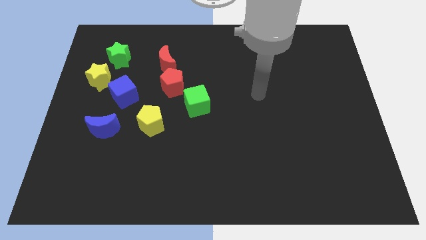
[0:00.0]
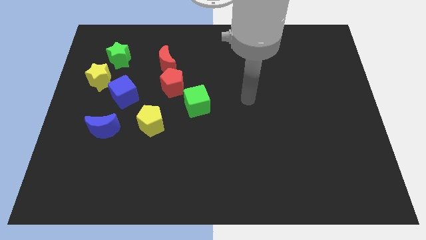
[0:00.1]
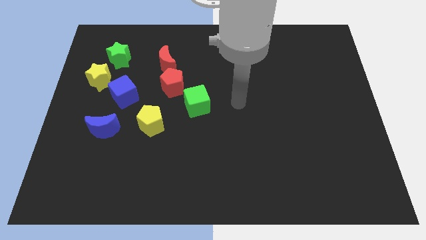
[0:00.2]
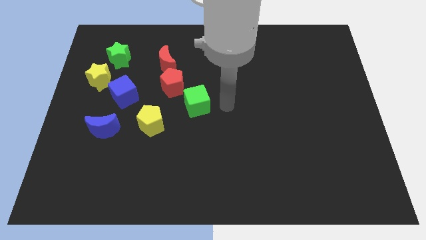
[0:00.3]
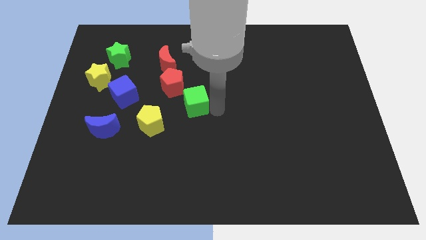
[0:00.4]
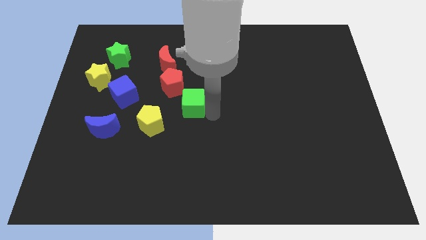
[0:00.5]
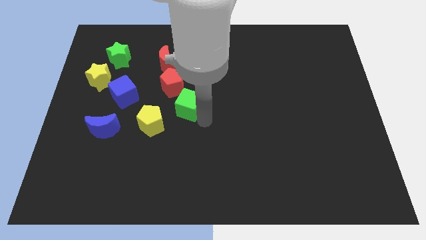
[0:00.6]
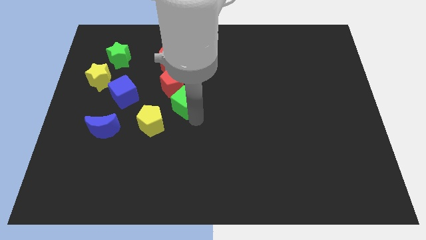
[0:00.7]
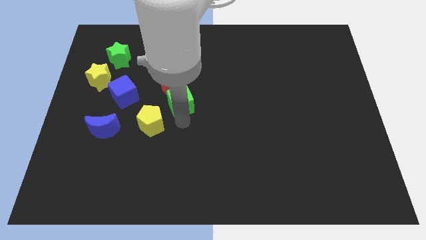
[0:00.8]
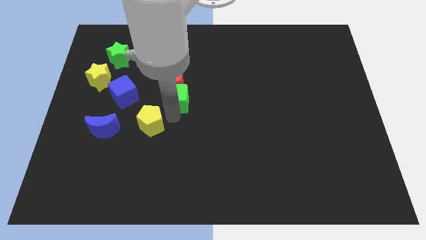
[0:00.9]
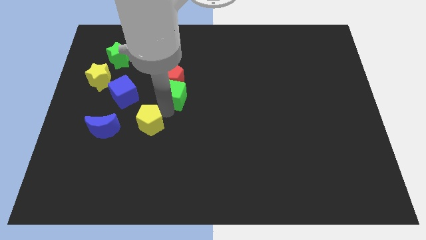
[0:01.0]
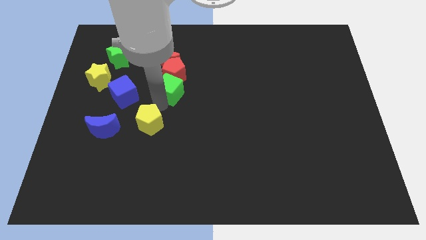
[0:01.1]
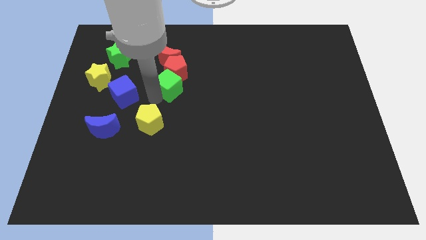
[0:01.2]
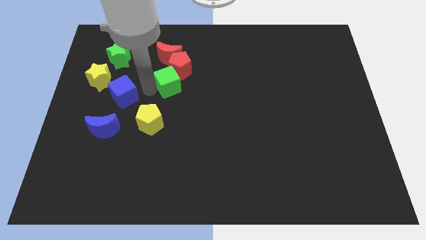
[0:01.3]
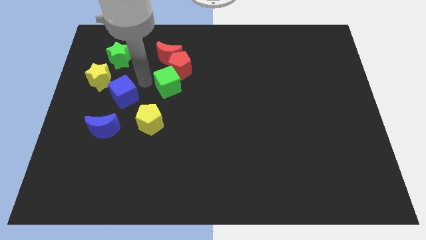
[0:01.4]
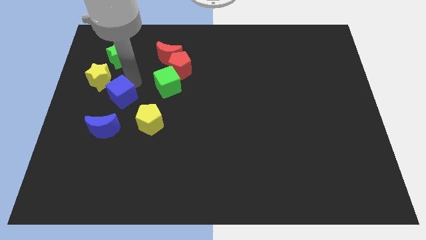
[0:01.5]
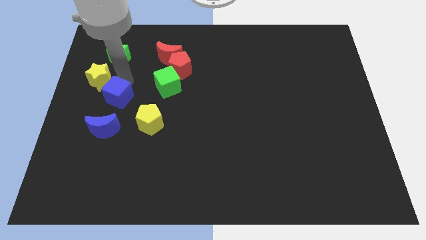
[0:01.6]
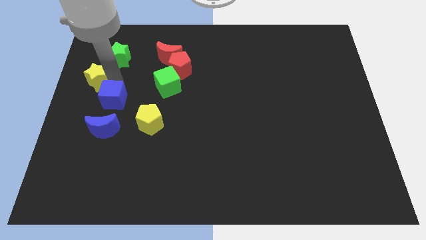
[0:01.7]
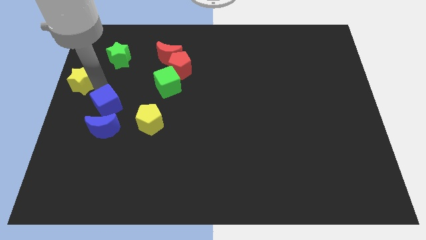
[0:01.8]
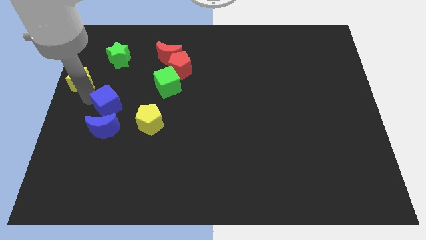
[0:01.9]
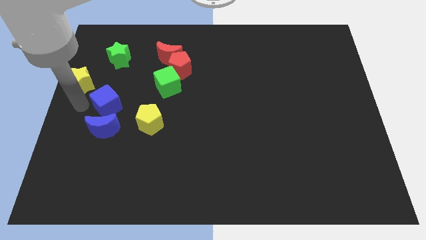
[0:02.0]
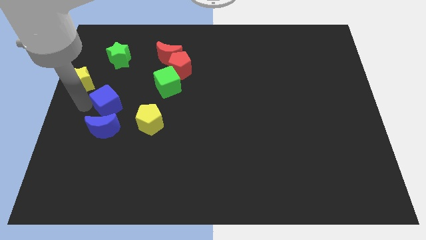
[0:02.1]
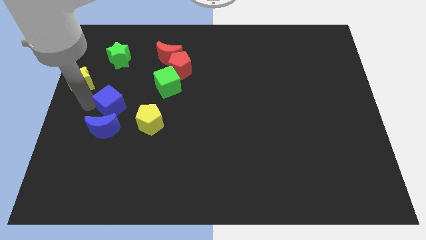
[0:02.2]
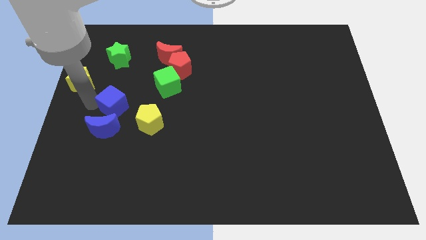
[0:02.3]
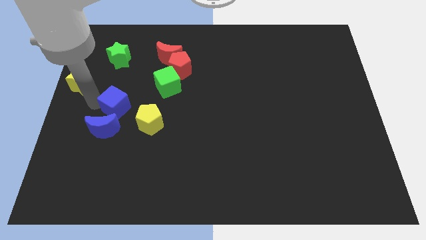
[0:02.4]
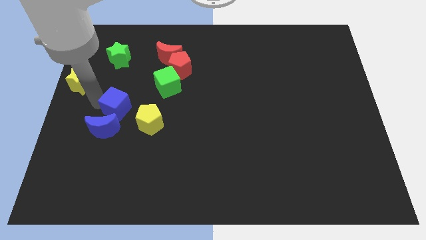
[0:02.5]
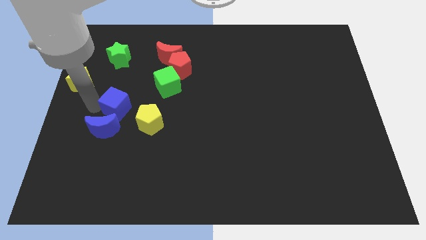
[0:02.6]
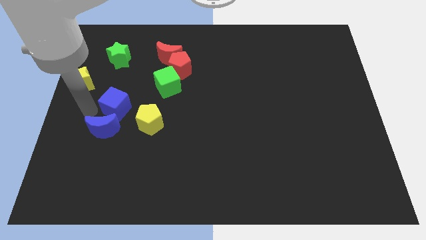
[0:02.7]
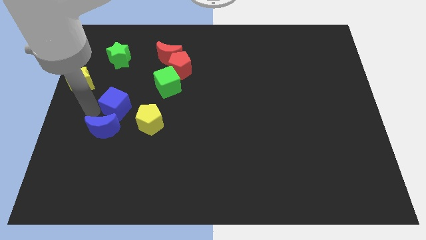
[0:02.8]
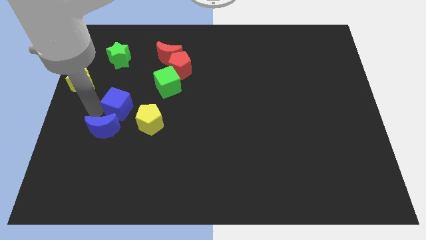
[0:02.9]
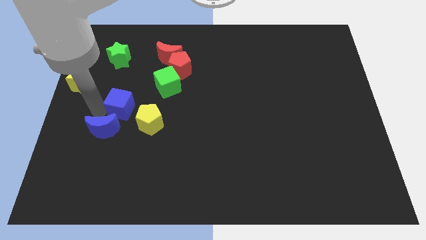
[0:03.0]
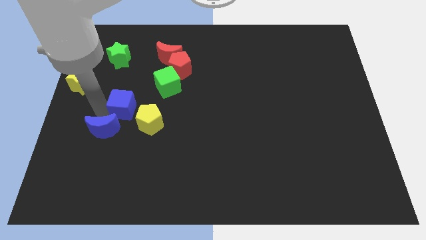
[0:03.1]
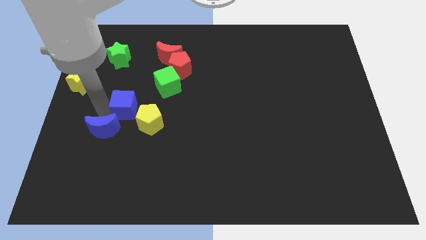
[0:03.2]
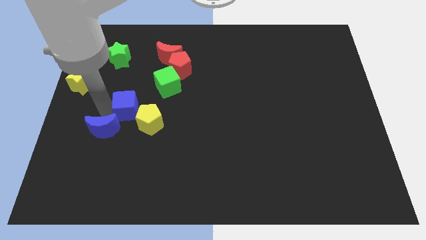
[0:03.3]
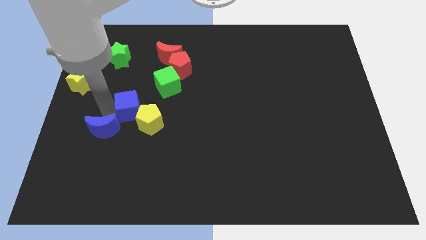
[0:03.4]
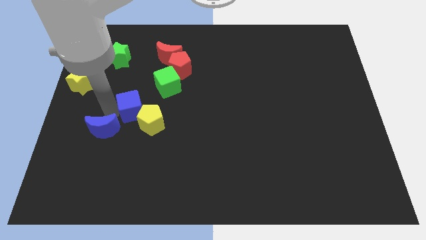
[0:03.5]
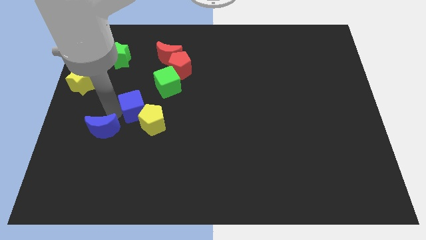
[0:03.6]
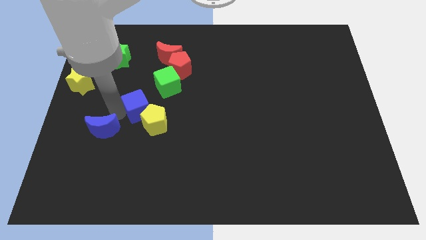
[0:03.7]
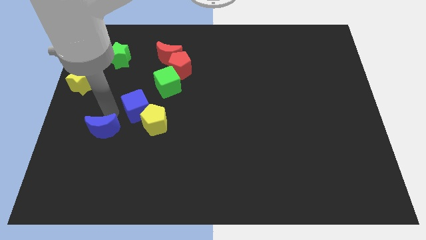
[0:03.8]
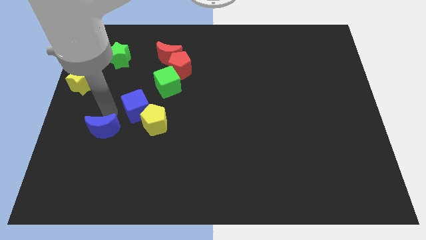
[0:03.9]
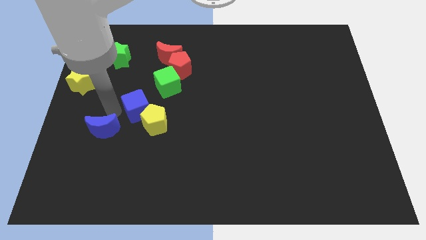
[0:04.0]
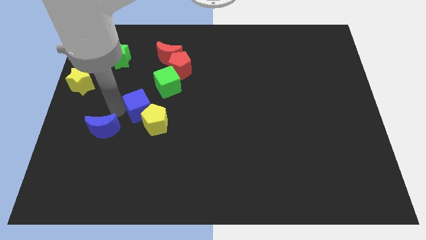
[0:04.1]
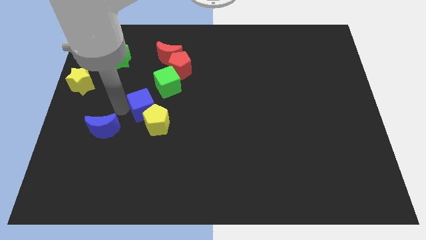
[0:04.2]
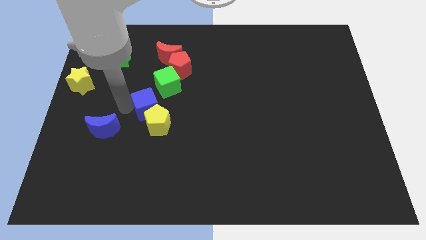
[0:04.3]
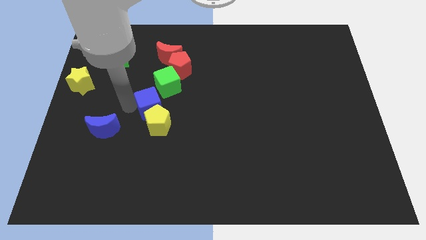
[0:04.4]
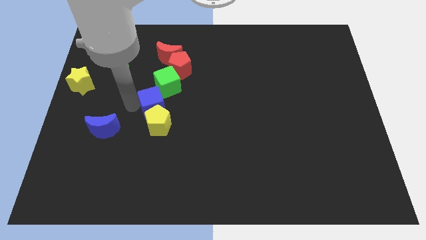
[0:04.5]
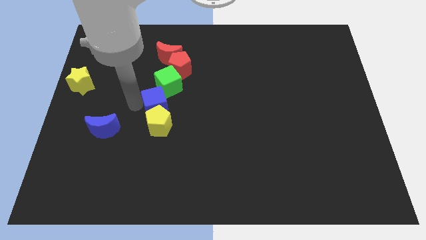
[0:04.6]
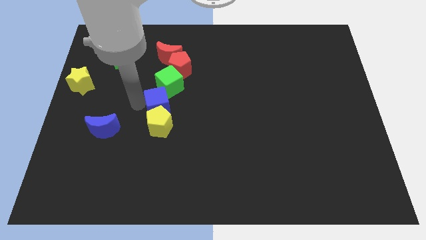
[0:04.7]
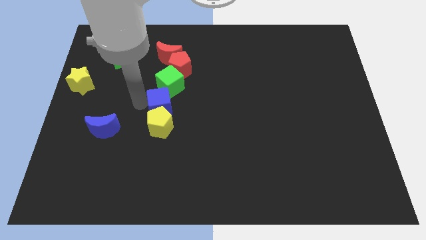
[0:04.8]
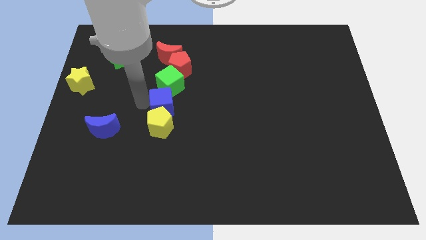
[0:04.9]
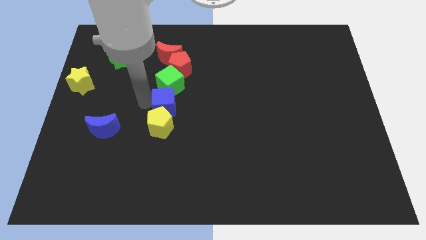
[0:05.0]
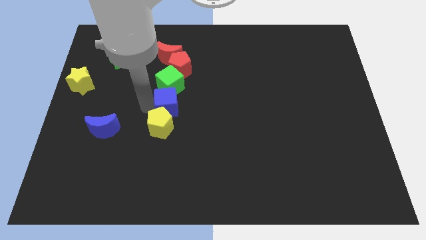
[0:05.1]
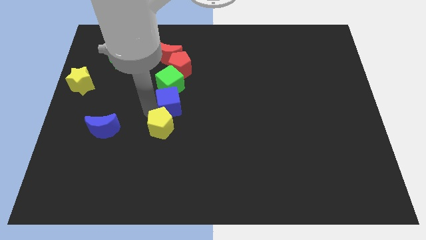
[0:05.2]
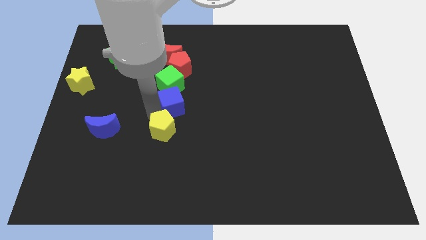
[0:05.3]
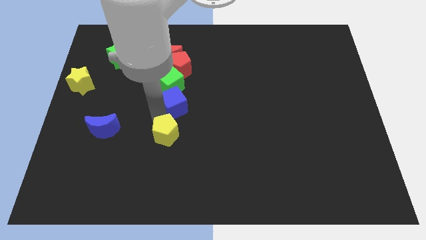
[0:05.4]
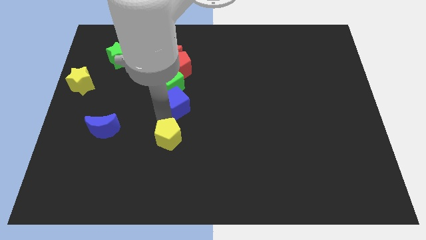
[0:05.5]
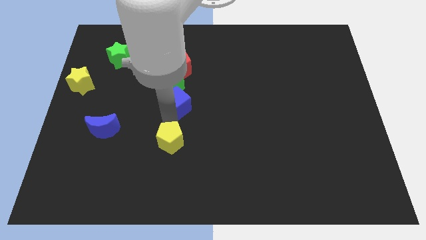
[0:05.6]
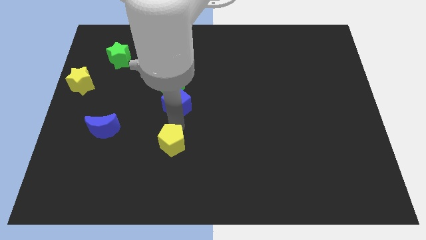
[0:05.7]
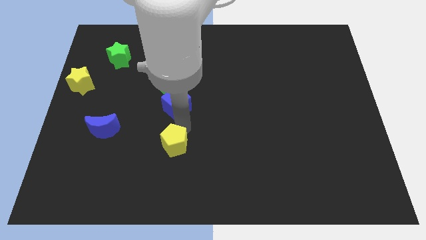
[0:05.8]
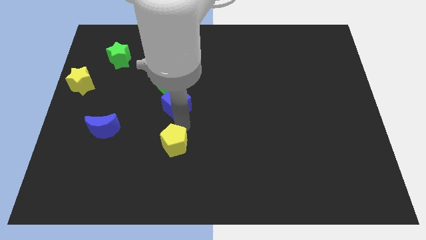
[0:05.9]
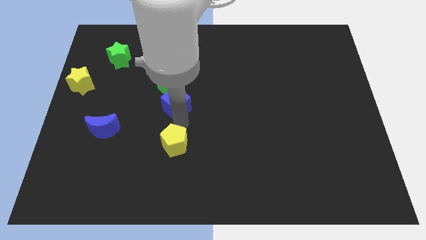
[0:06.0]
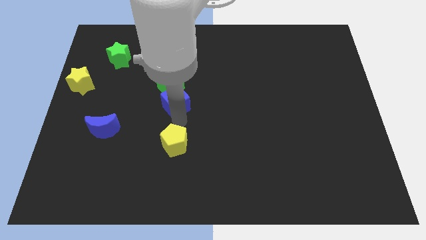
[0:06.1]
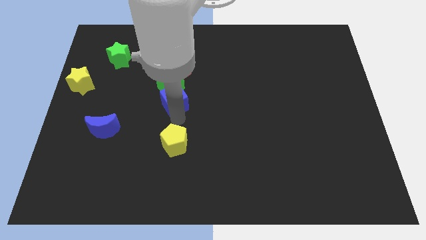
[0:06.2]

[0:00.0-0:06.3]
push the blue cube towards the green cube

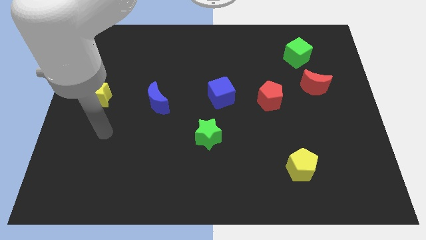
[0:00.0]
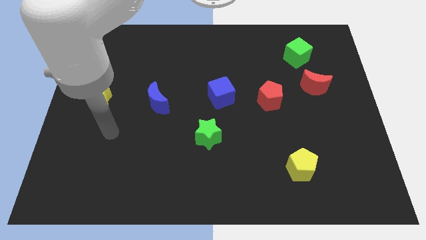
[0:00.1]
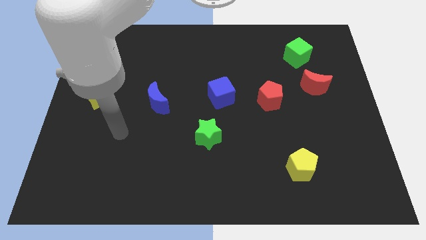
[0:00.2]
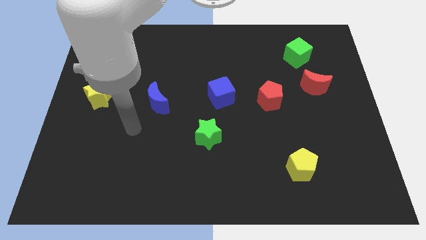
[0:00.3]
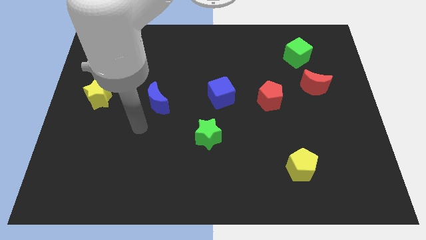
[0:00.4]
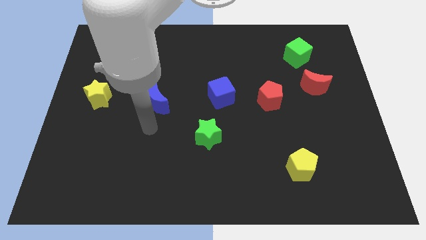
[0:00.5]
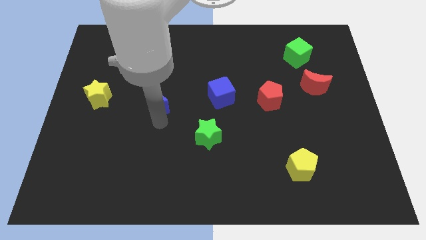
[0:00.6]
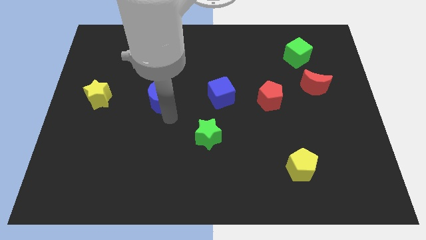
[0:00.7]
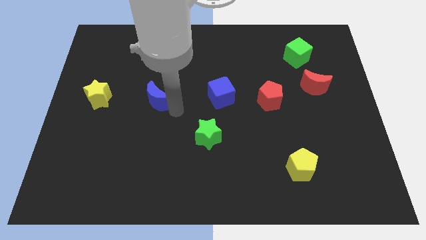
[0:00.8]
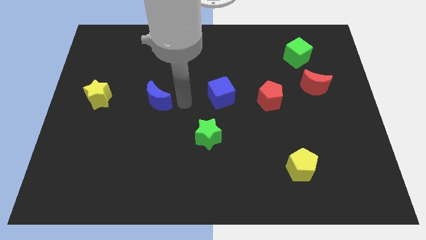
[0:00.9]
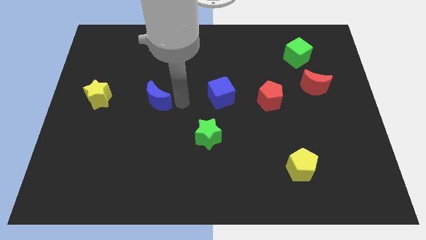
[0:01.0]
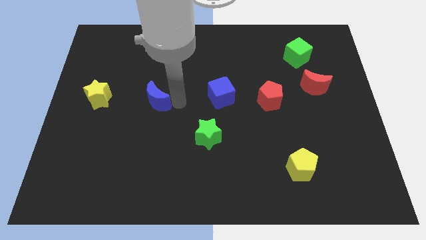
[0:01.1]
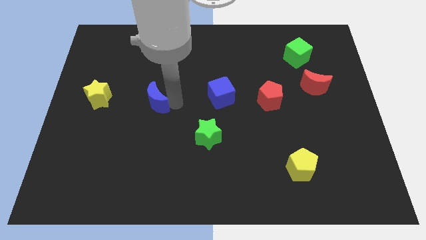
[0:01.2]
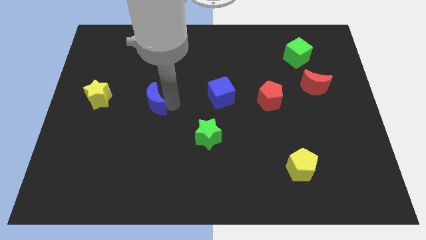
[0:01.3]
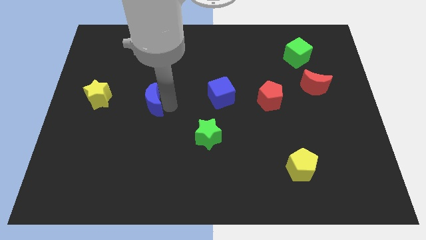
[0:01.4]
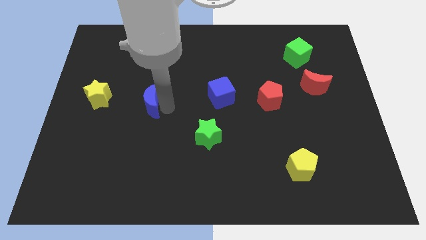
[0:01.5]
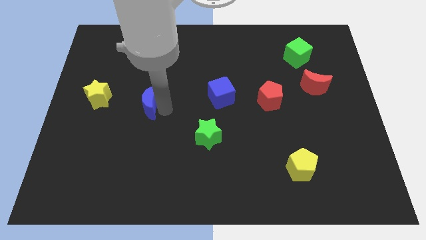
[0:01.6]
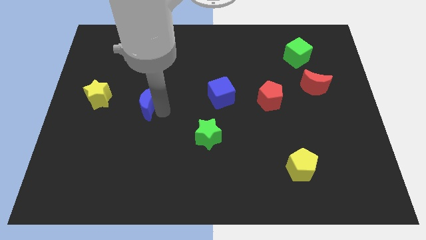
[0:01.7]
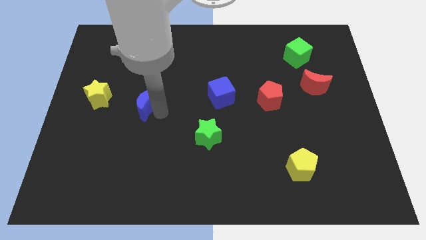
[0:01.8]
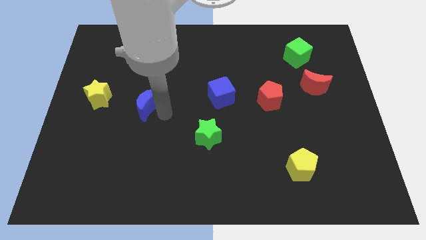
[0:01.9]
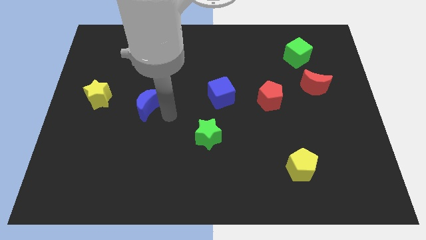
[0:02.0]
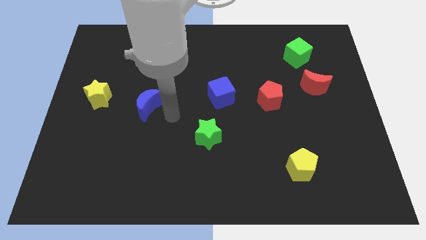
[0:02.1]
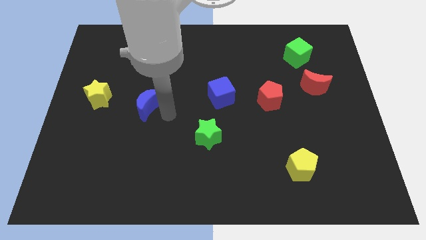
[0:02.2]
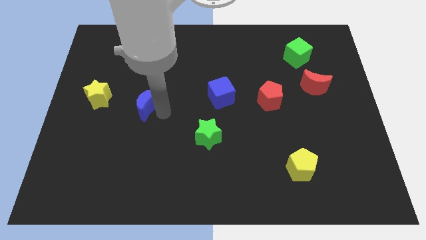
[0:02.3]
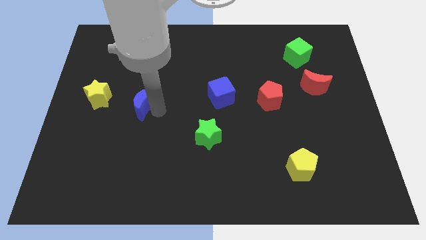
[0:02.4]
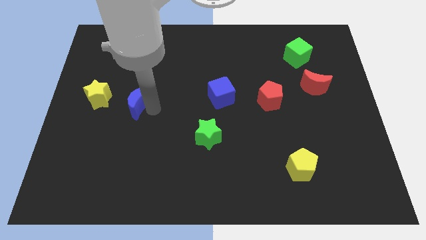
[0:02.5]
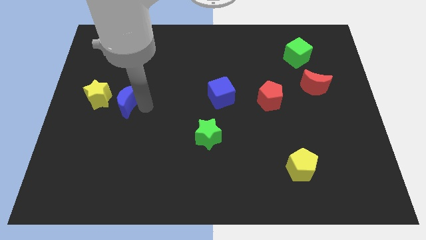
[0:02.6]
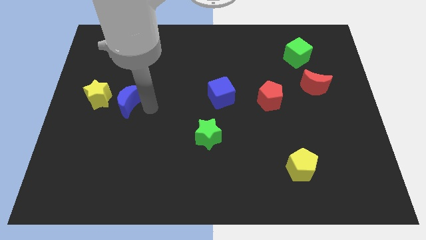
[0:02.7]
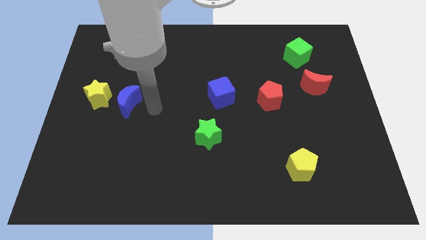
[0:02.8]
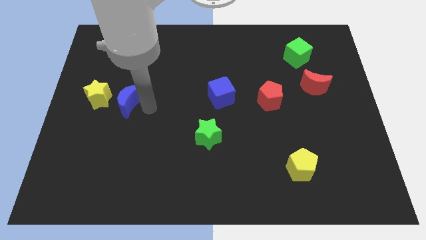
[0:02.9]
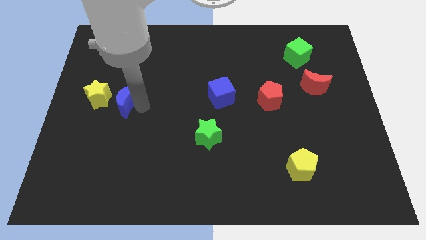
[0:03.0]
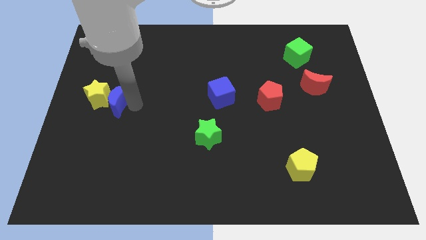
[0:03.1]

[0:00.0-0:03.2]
put the blue moon towards the yellow star
